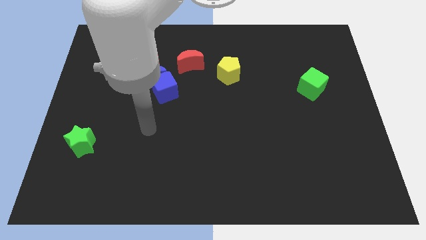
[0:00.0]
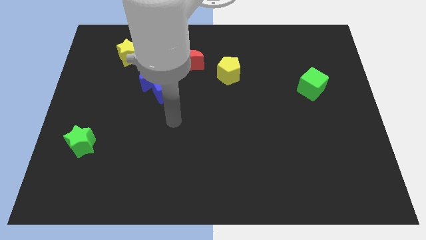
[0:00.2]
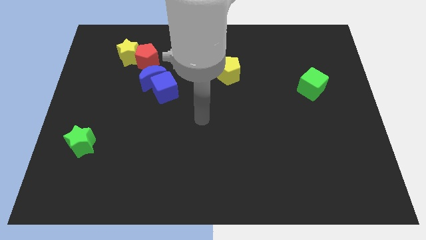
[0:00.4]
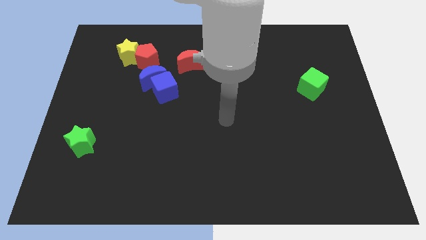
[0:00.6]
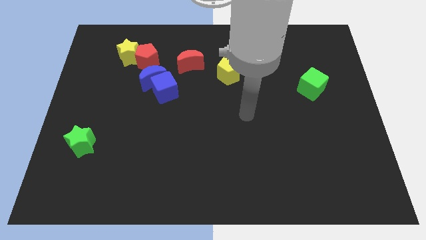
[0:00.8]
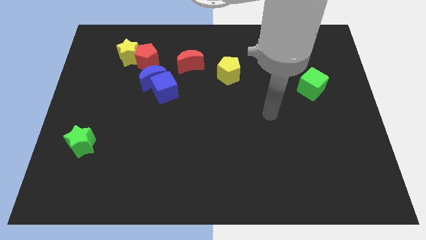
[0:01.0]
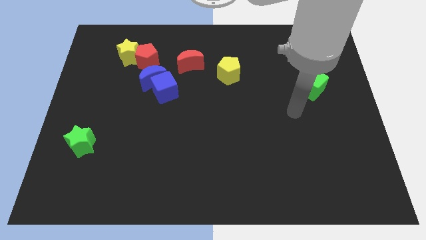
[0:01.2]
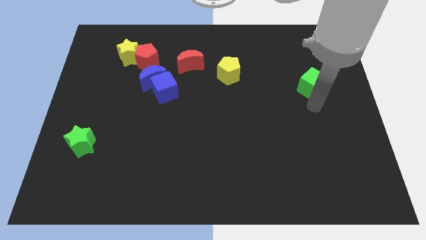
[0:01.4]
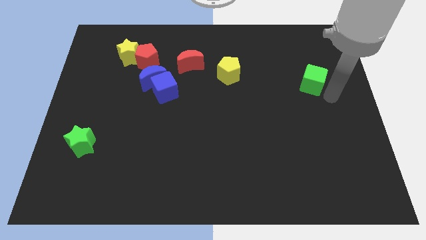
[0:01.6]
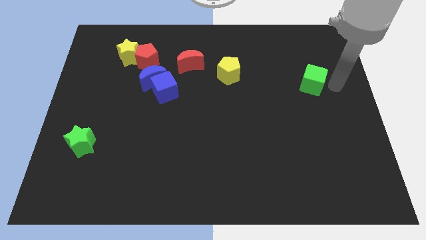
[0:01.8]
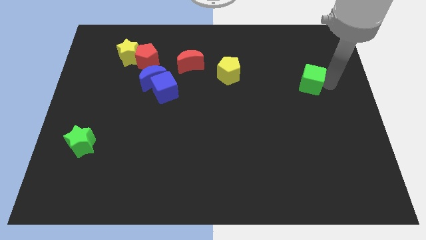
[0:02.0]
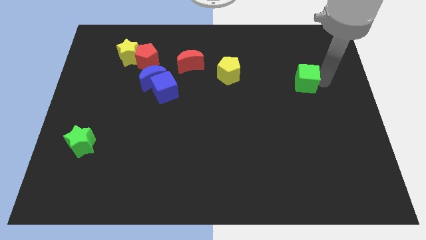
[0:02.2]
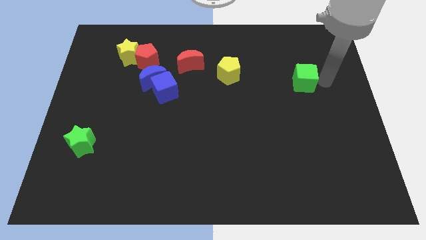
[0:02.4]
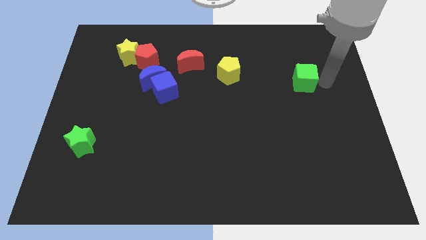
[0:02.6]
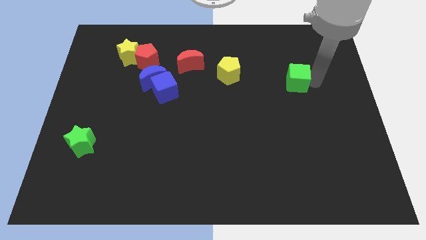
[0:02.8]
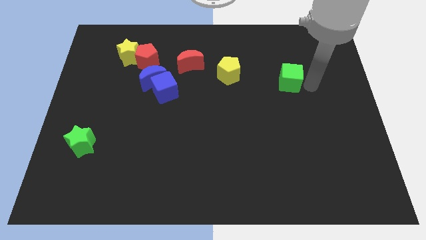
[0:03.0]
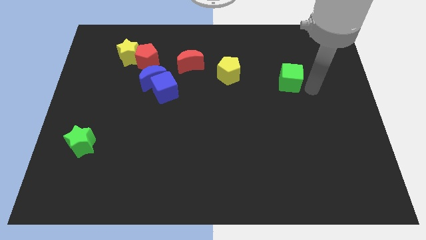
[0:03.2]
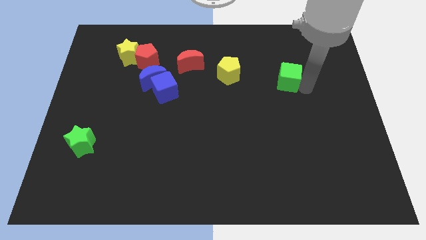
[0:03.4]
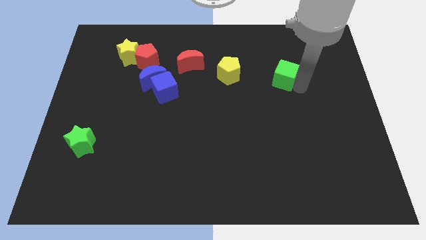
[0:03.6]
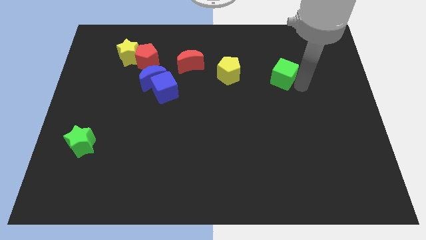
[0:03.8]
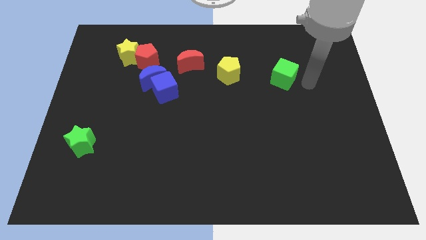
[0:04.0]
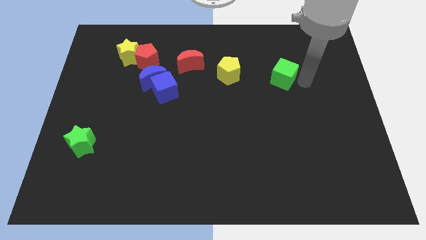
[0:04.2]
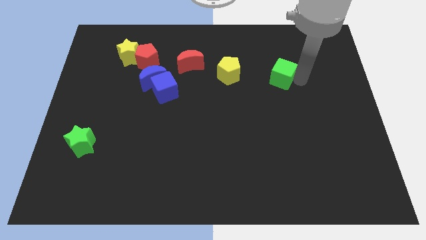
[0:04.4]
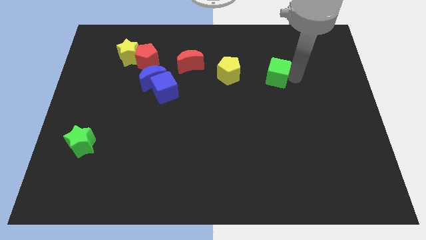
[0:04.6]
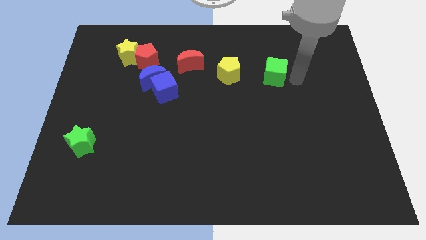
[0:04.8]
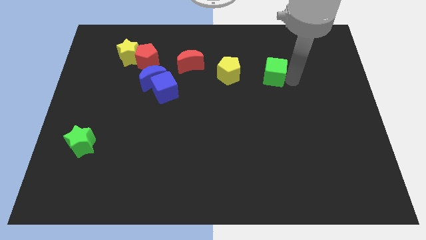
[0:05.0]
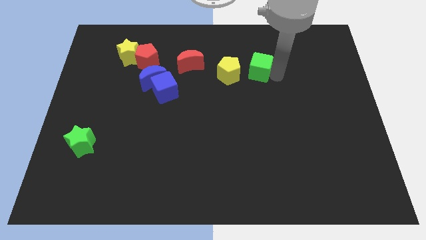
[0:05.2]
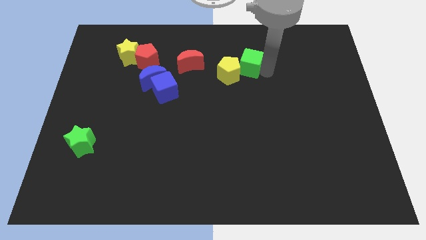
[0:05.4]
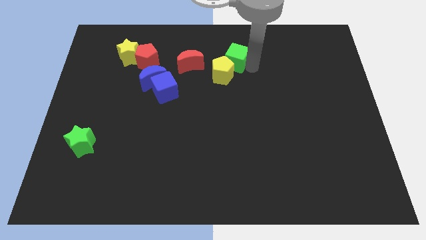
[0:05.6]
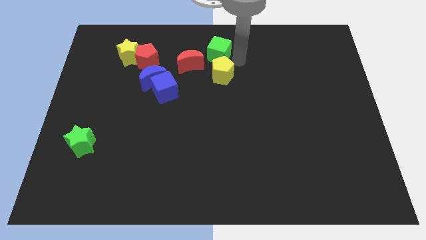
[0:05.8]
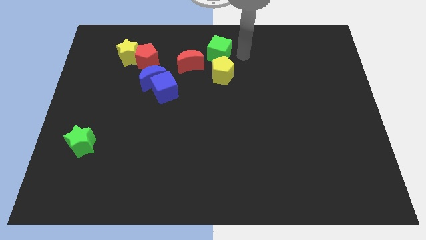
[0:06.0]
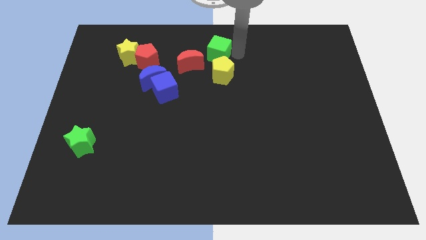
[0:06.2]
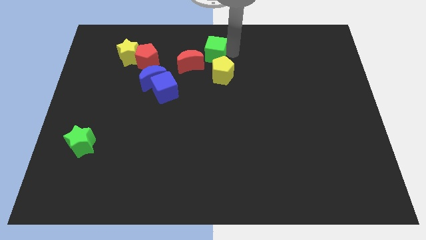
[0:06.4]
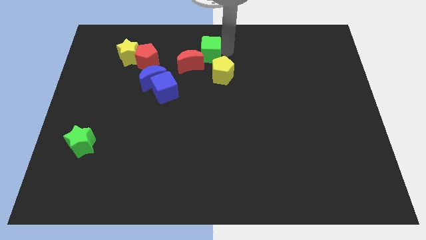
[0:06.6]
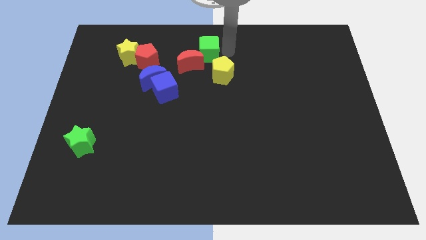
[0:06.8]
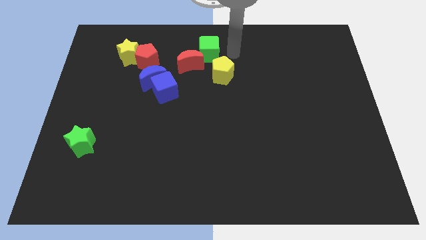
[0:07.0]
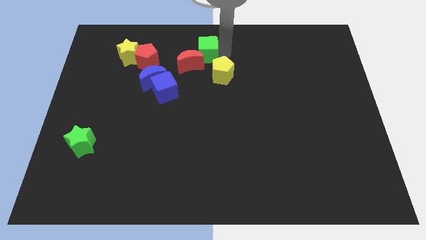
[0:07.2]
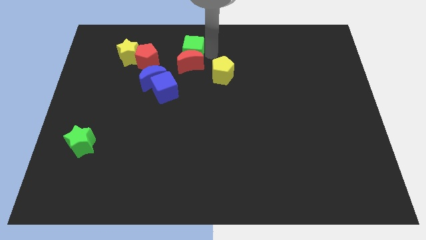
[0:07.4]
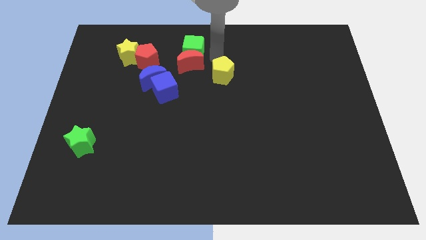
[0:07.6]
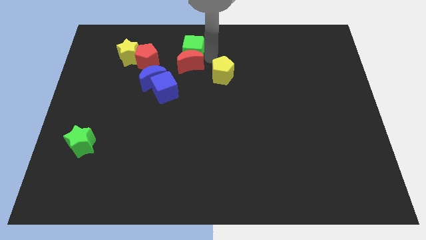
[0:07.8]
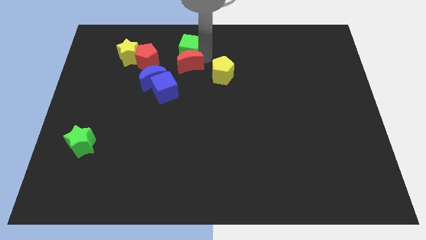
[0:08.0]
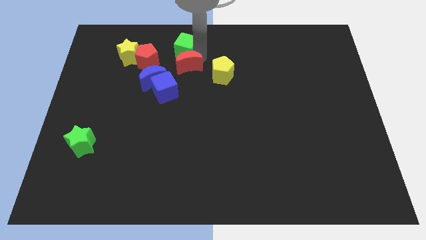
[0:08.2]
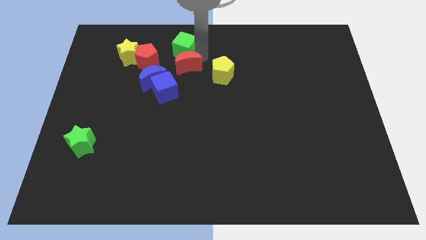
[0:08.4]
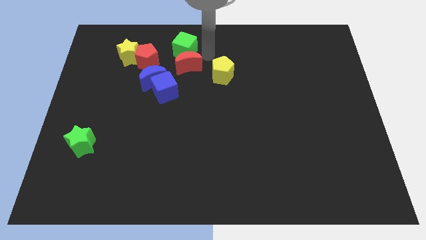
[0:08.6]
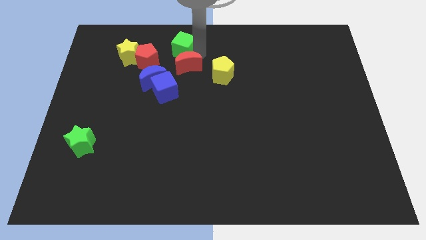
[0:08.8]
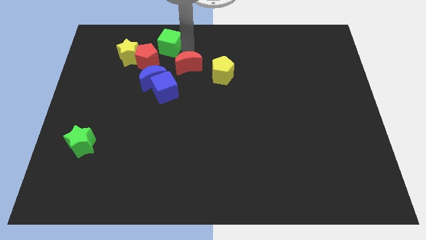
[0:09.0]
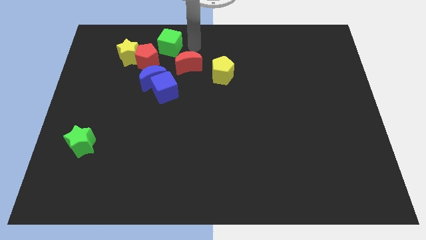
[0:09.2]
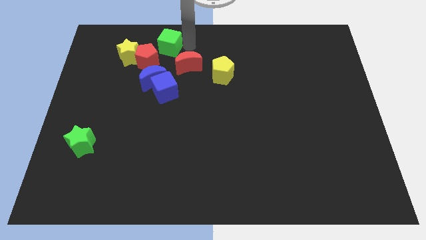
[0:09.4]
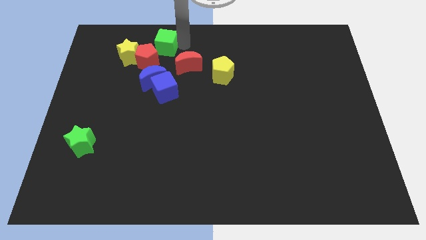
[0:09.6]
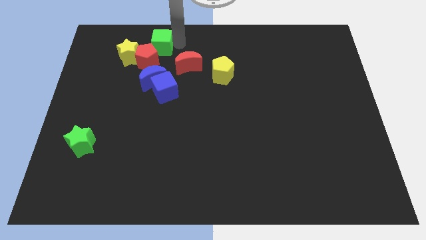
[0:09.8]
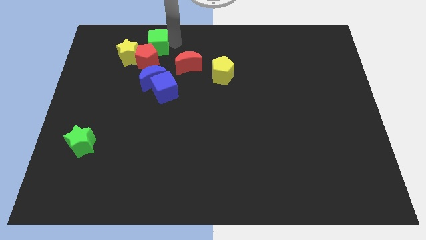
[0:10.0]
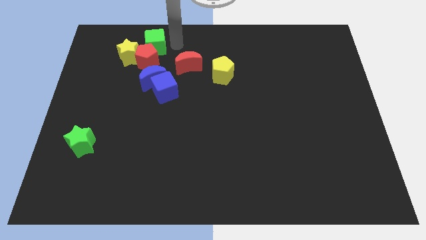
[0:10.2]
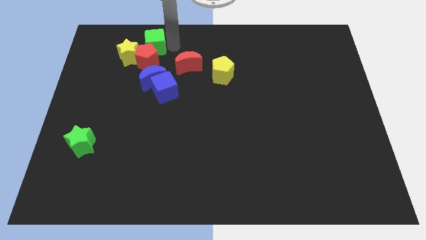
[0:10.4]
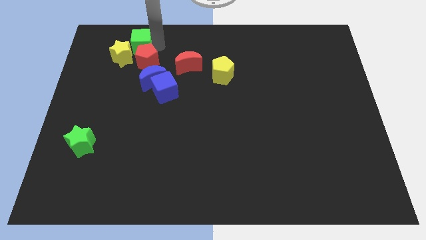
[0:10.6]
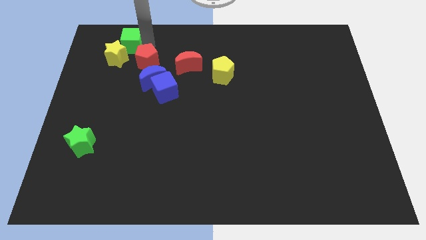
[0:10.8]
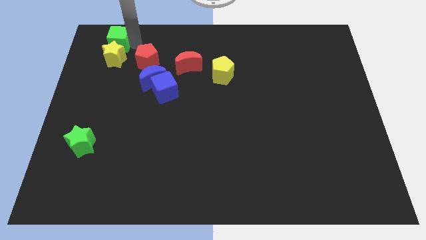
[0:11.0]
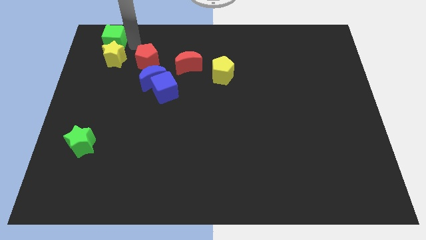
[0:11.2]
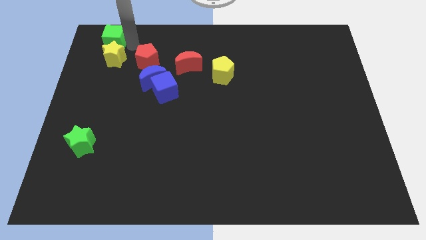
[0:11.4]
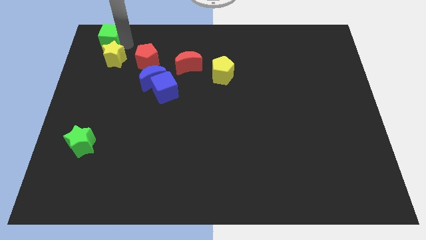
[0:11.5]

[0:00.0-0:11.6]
move the green cube to the upper left corner
